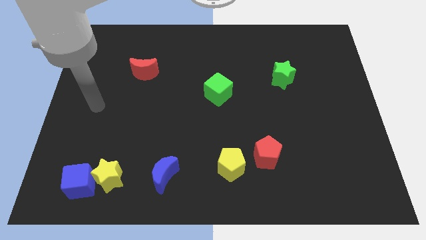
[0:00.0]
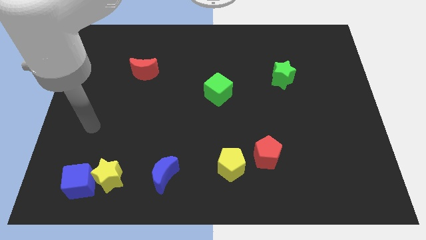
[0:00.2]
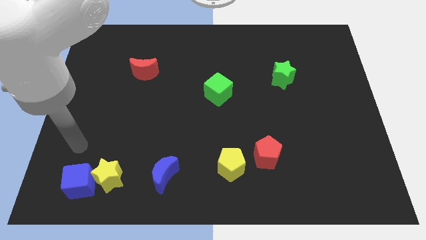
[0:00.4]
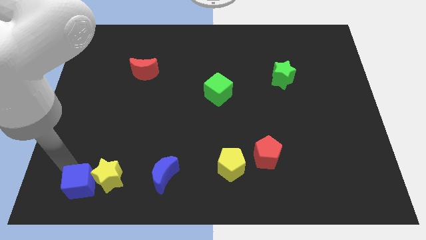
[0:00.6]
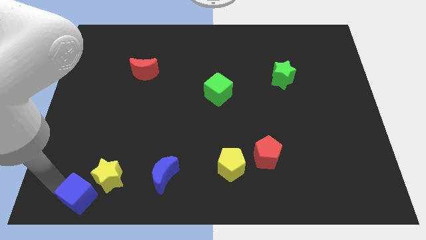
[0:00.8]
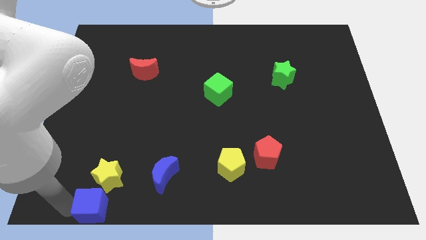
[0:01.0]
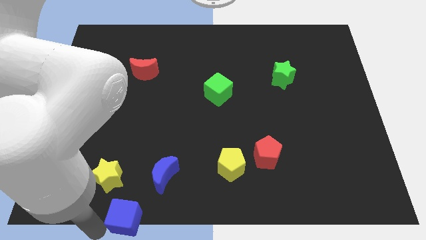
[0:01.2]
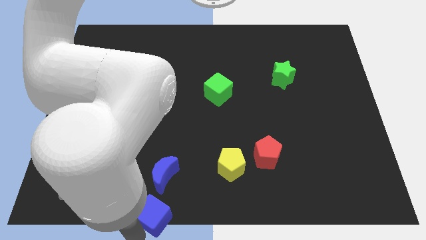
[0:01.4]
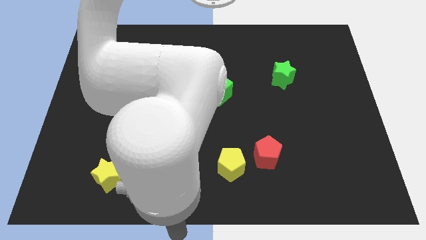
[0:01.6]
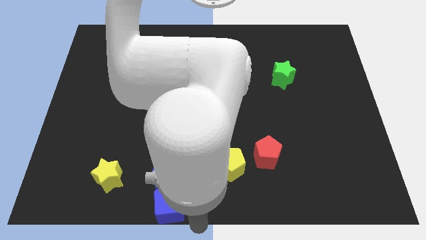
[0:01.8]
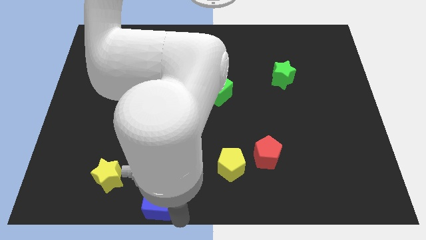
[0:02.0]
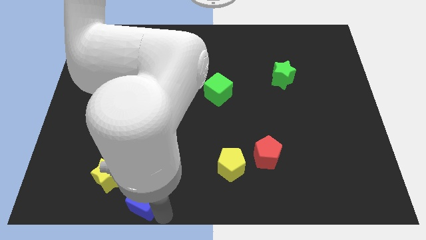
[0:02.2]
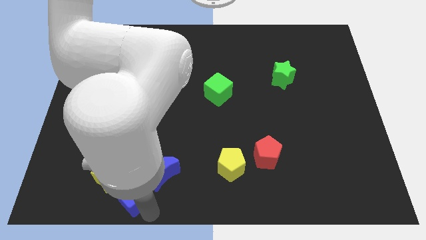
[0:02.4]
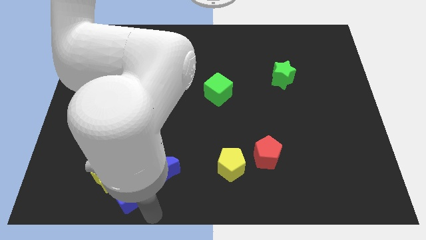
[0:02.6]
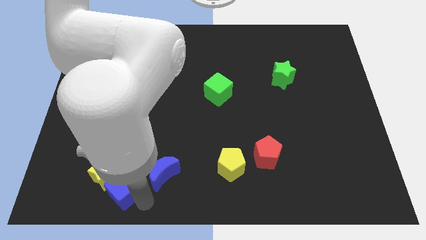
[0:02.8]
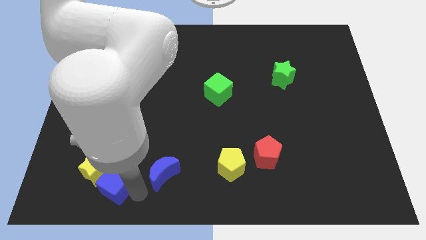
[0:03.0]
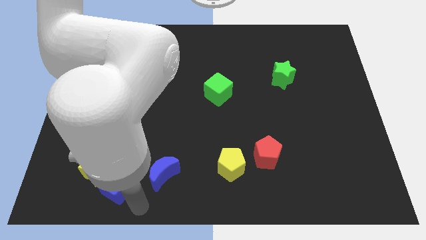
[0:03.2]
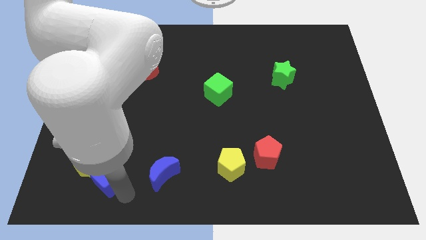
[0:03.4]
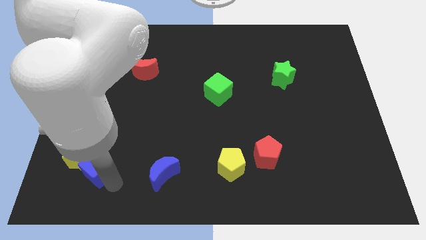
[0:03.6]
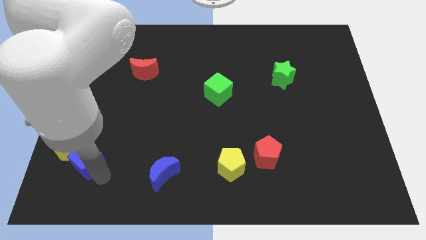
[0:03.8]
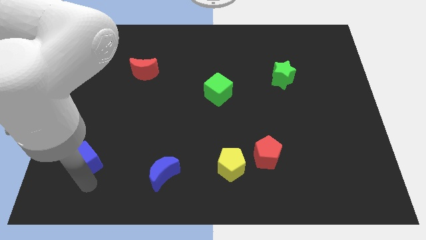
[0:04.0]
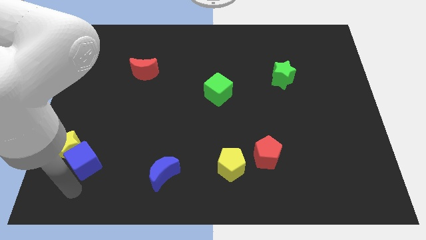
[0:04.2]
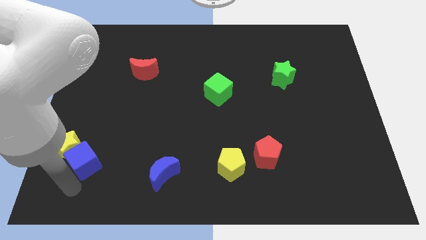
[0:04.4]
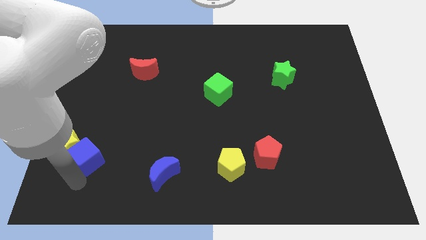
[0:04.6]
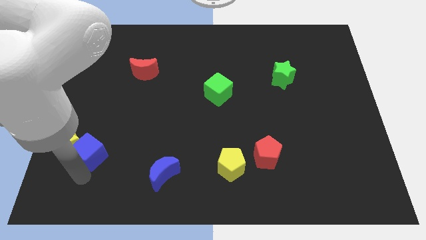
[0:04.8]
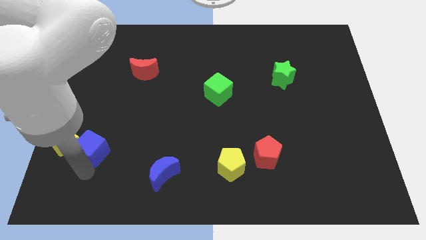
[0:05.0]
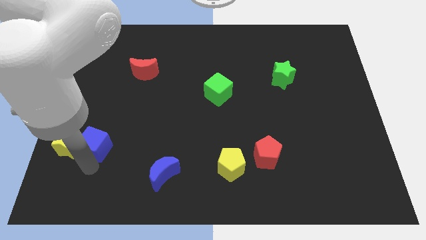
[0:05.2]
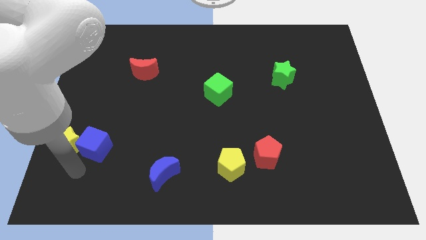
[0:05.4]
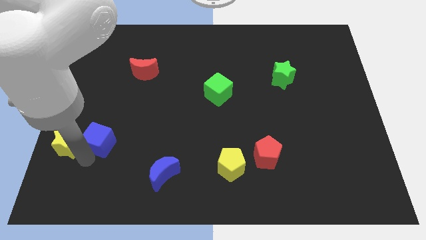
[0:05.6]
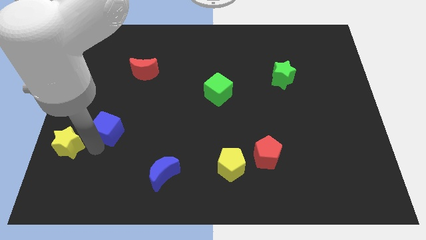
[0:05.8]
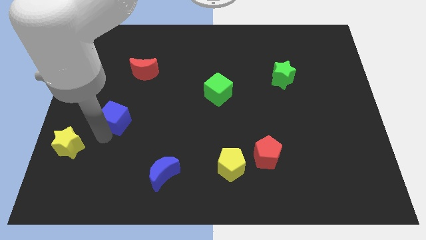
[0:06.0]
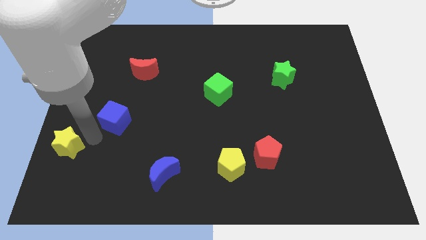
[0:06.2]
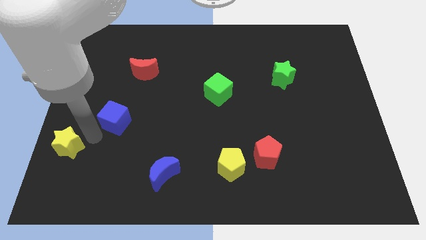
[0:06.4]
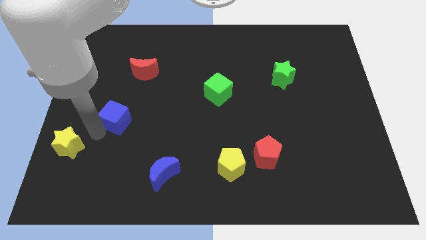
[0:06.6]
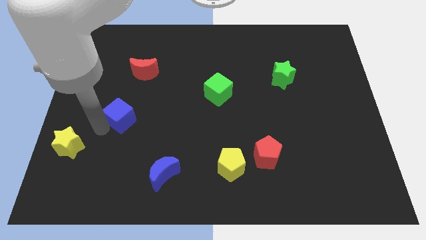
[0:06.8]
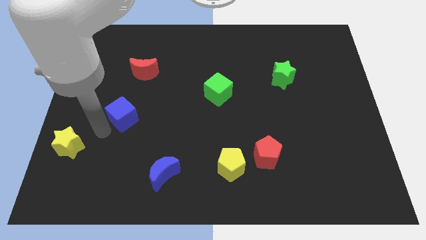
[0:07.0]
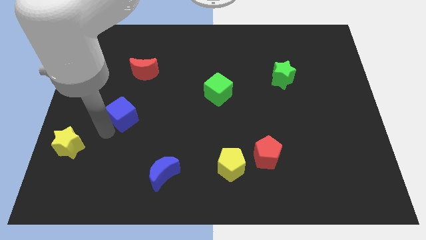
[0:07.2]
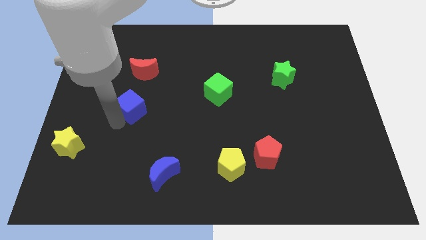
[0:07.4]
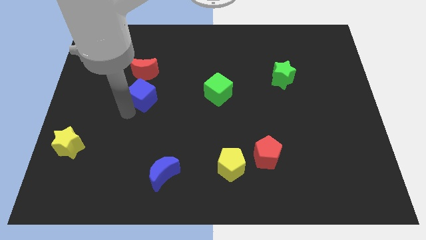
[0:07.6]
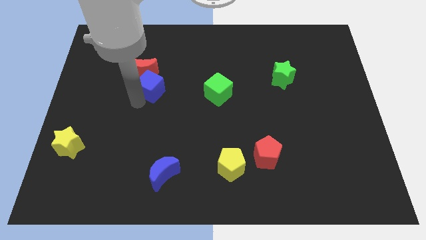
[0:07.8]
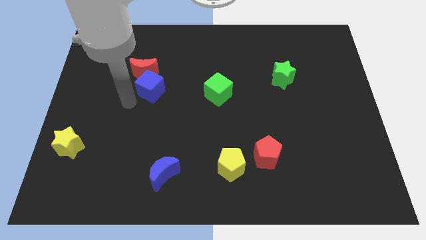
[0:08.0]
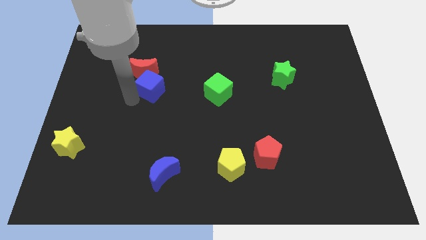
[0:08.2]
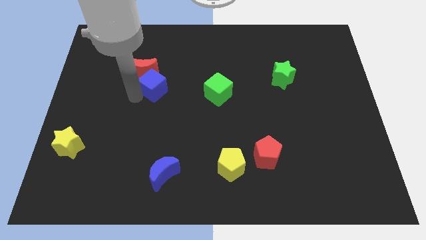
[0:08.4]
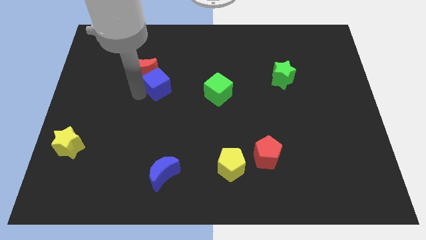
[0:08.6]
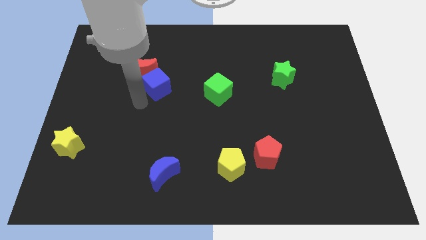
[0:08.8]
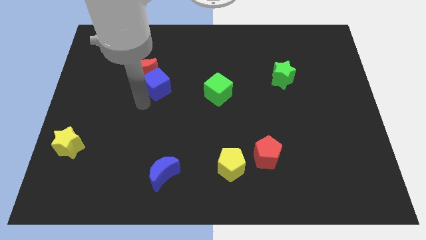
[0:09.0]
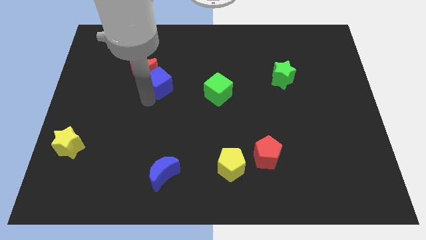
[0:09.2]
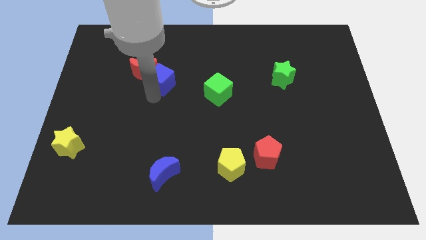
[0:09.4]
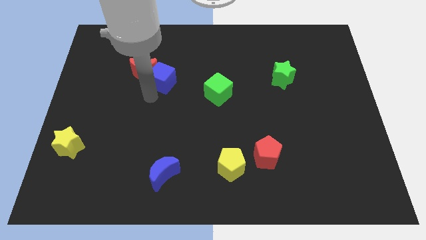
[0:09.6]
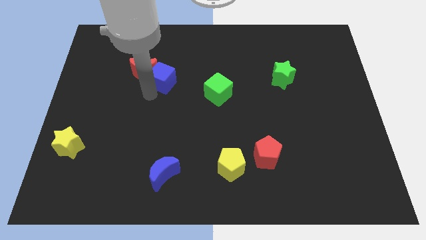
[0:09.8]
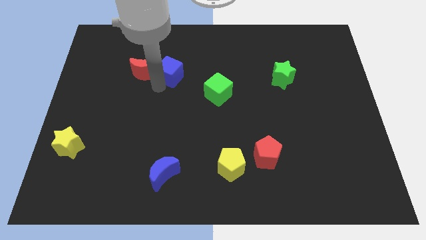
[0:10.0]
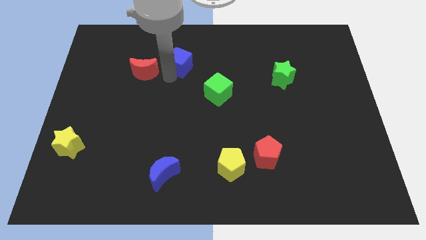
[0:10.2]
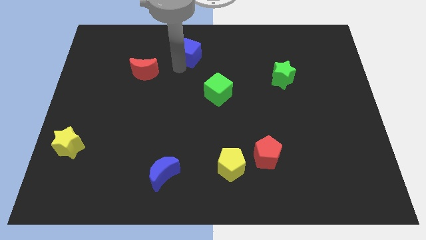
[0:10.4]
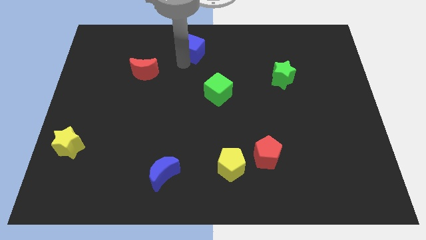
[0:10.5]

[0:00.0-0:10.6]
slide the blue cube to the top side

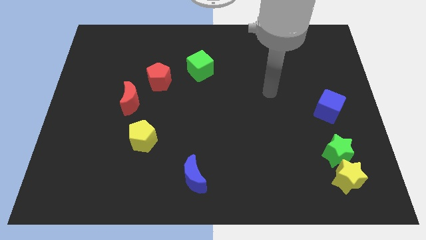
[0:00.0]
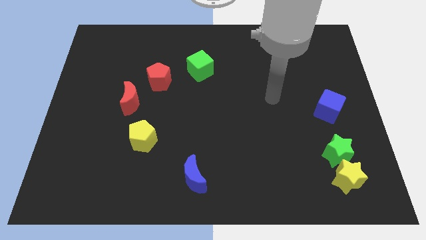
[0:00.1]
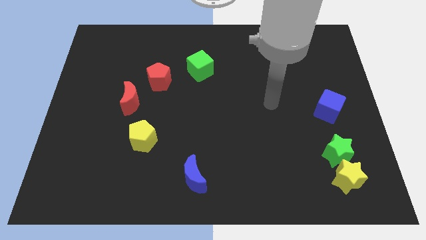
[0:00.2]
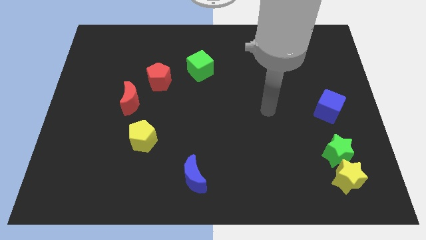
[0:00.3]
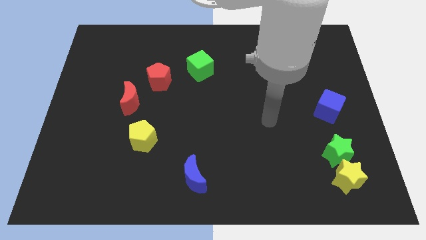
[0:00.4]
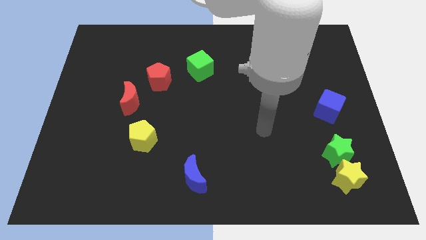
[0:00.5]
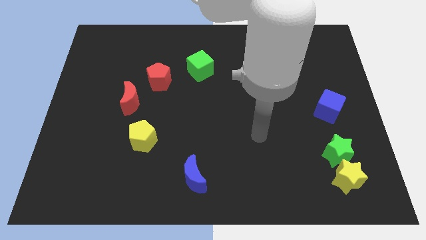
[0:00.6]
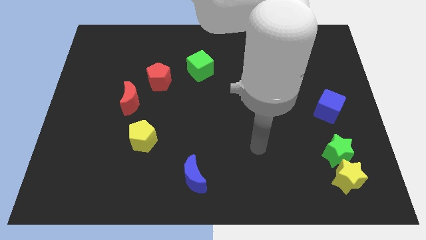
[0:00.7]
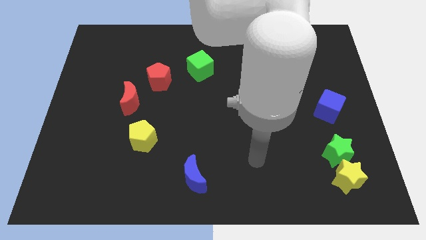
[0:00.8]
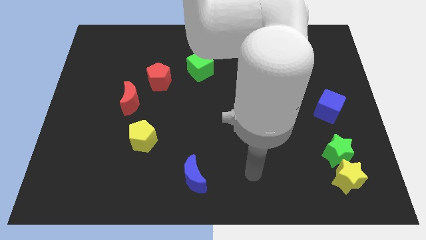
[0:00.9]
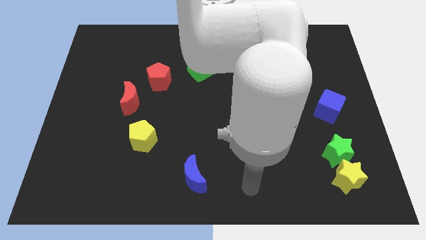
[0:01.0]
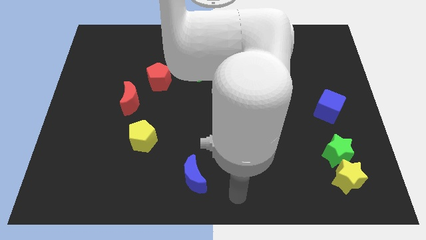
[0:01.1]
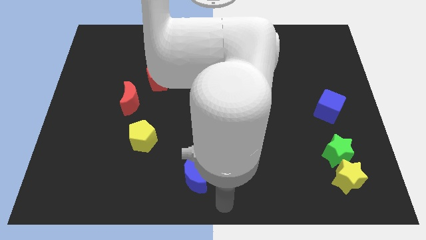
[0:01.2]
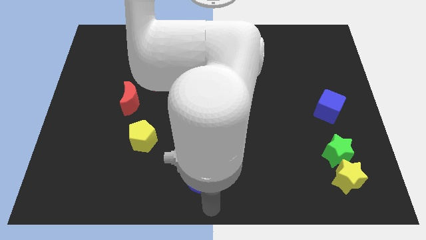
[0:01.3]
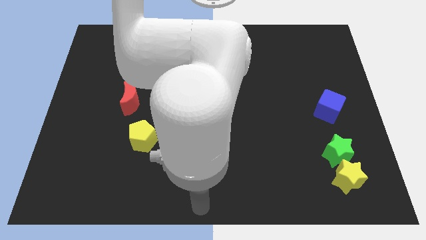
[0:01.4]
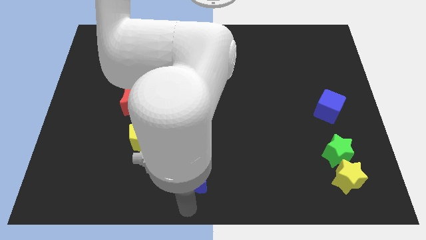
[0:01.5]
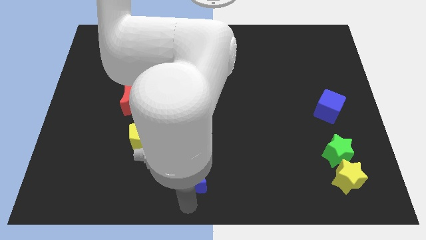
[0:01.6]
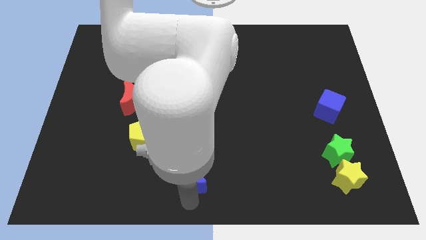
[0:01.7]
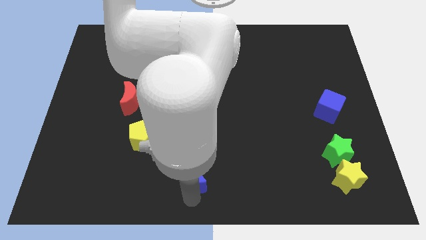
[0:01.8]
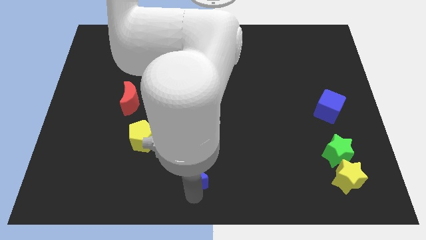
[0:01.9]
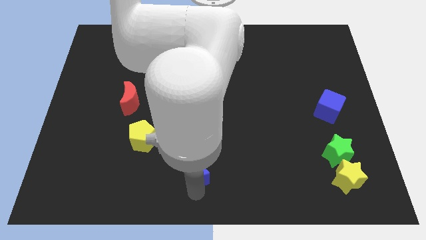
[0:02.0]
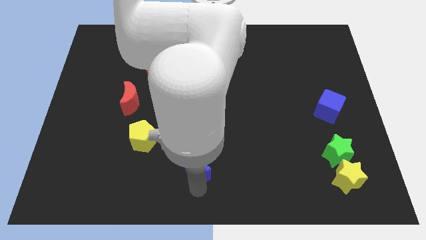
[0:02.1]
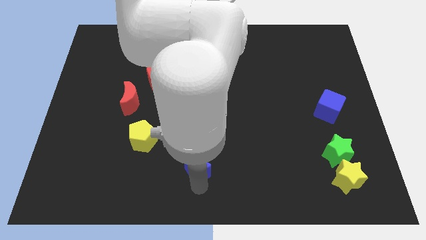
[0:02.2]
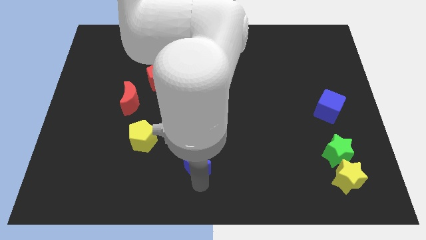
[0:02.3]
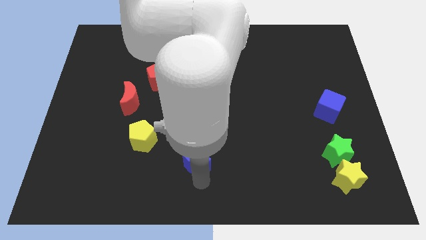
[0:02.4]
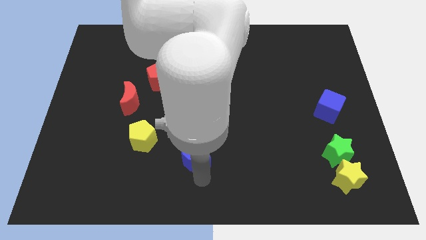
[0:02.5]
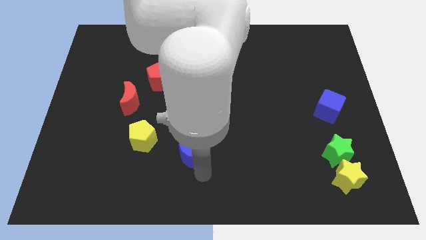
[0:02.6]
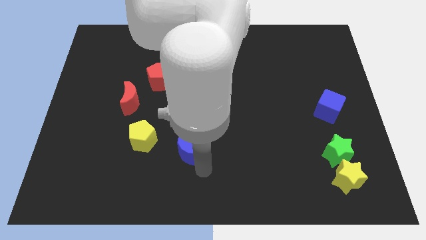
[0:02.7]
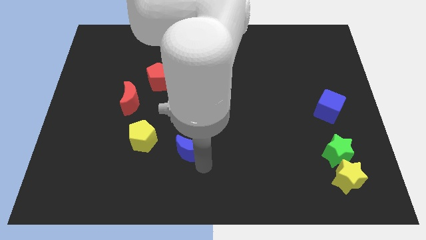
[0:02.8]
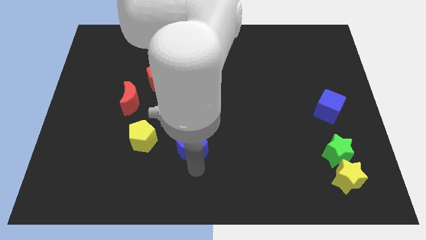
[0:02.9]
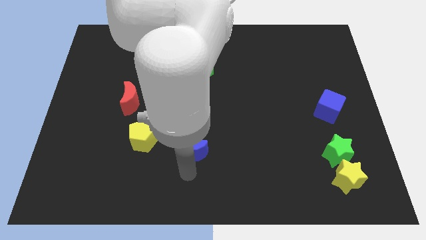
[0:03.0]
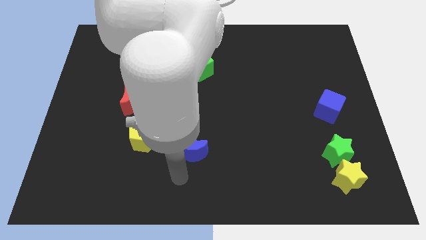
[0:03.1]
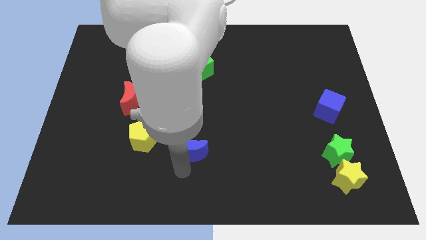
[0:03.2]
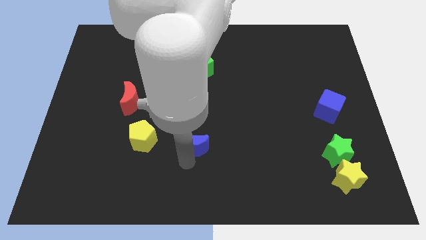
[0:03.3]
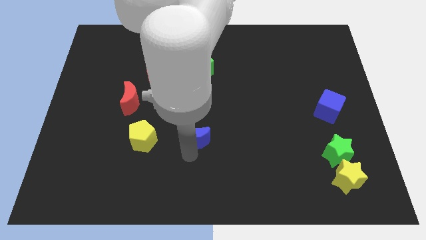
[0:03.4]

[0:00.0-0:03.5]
move the blue moon to the middle of the board
